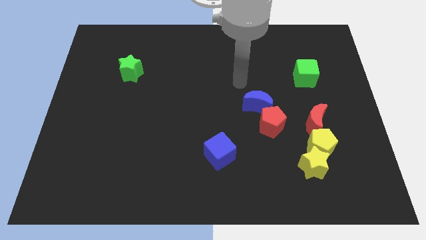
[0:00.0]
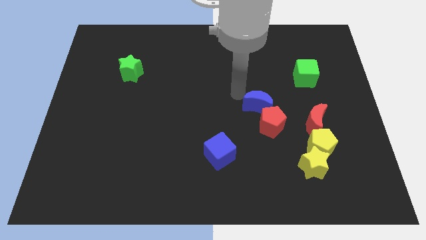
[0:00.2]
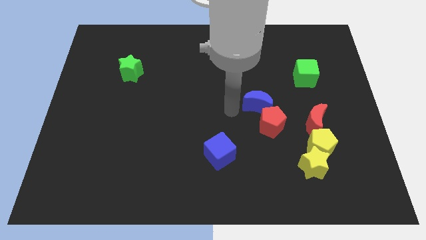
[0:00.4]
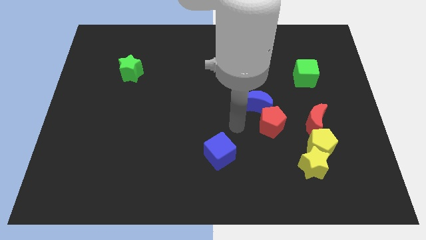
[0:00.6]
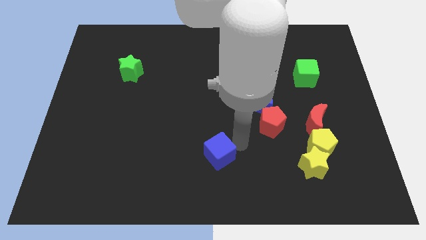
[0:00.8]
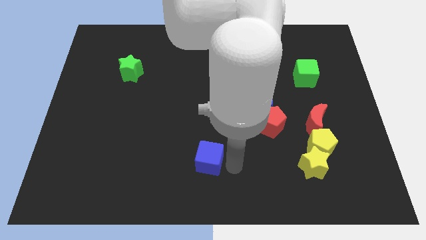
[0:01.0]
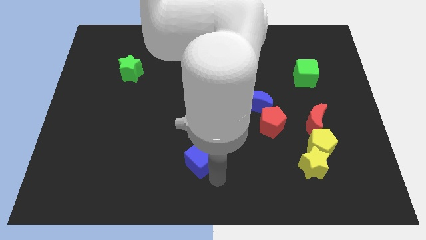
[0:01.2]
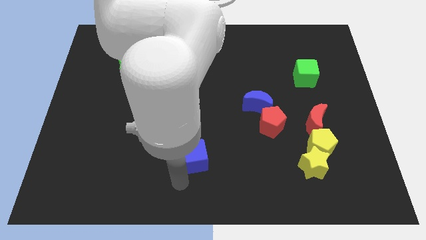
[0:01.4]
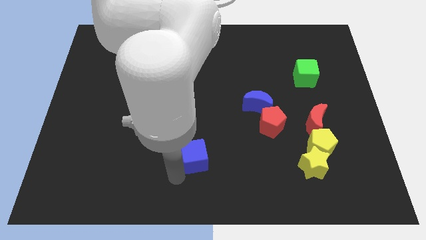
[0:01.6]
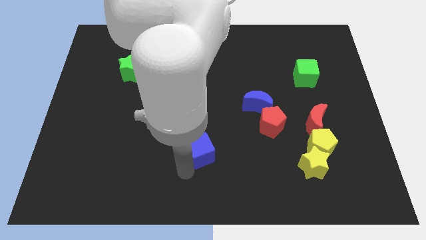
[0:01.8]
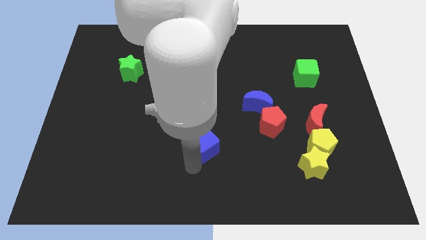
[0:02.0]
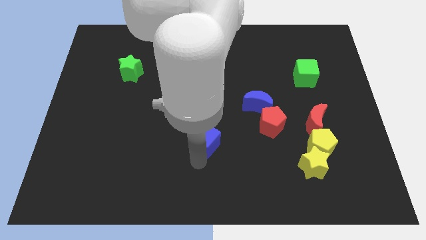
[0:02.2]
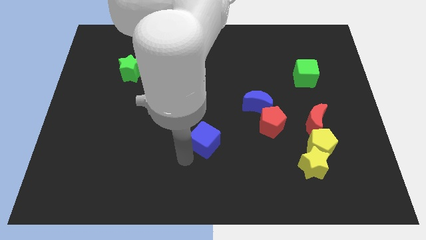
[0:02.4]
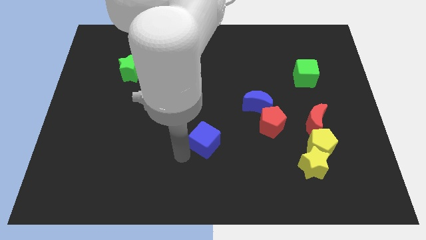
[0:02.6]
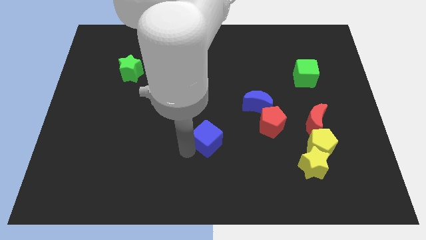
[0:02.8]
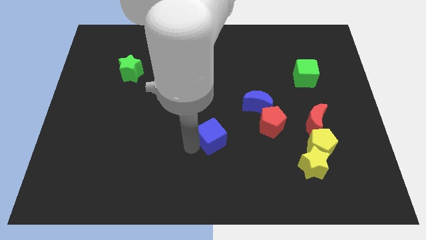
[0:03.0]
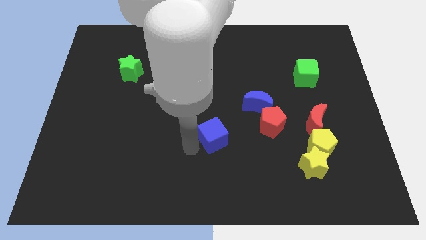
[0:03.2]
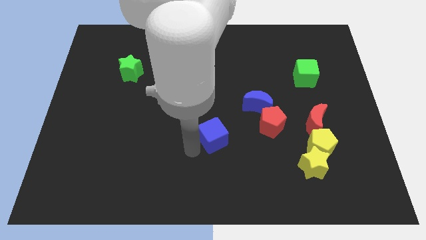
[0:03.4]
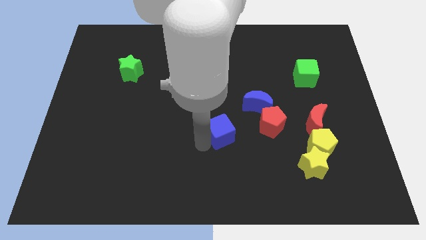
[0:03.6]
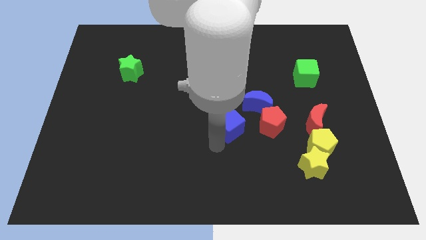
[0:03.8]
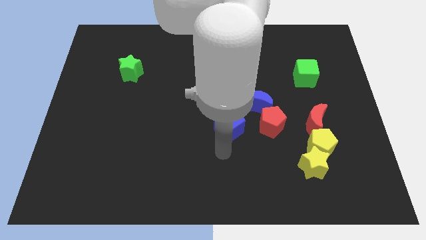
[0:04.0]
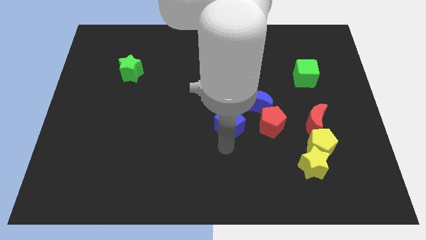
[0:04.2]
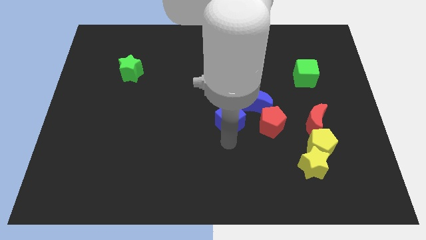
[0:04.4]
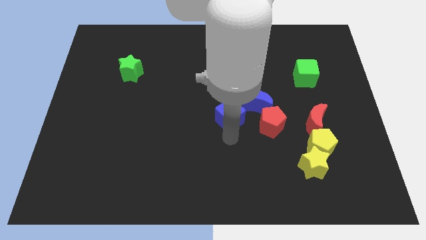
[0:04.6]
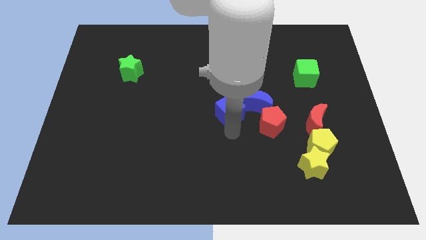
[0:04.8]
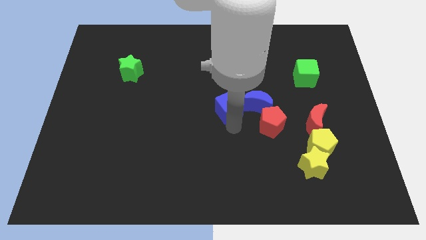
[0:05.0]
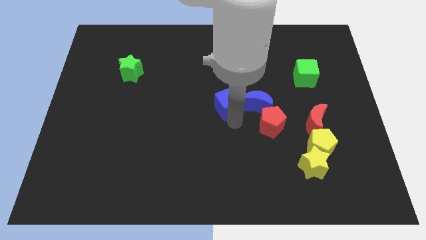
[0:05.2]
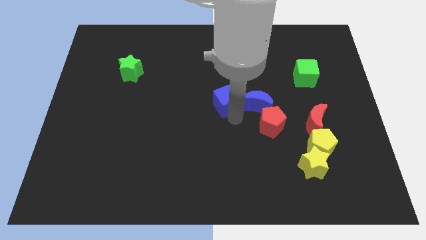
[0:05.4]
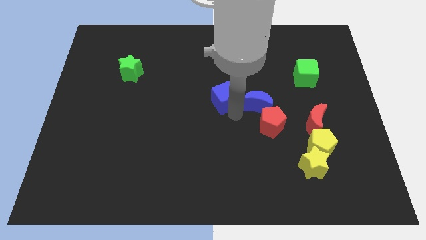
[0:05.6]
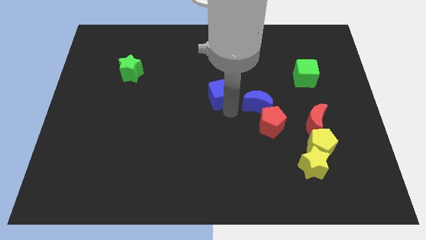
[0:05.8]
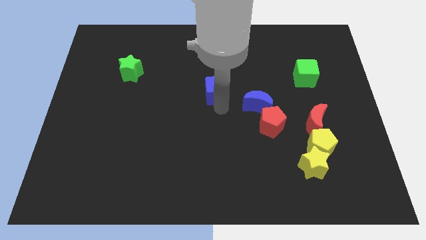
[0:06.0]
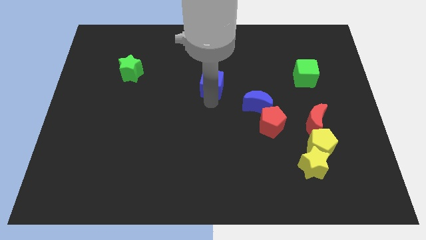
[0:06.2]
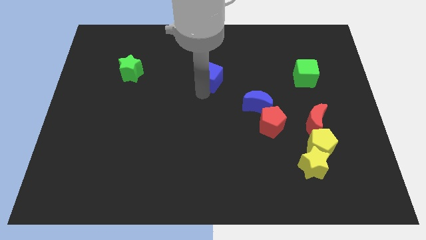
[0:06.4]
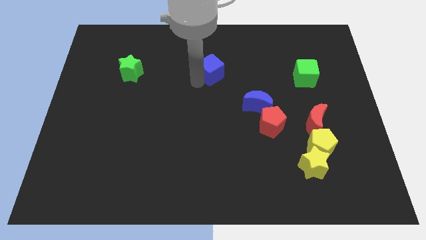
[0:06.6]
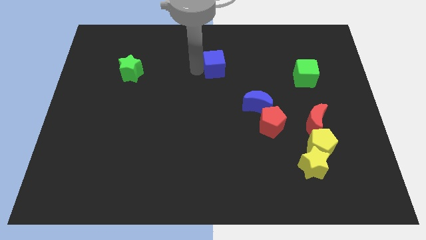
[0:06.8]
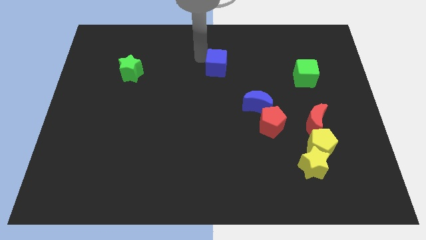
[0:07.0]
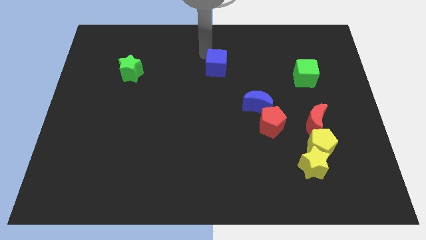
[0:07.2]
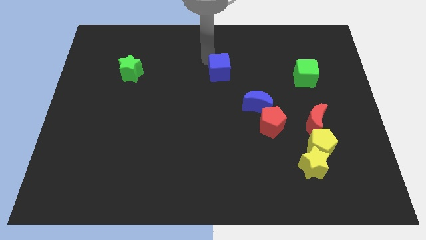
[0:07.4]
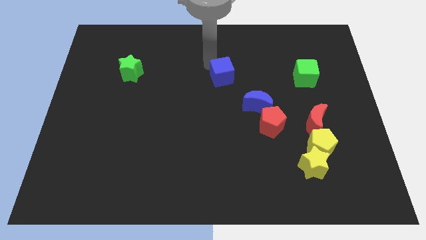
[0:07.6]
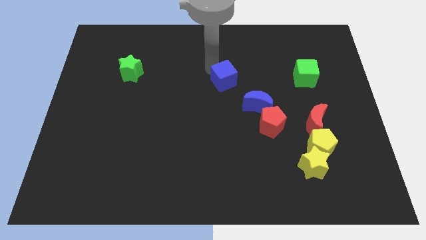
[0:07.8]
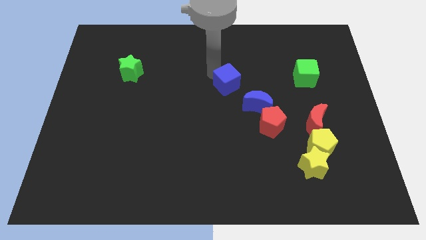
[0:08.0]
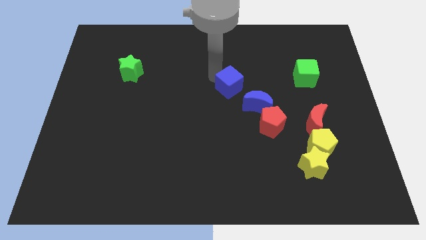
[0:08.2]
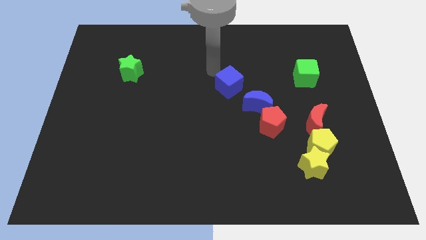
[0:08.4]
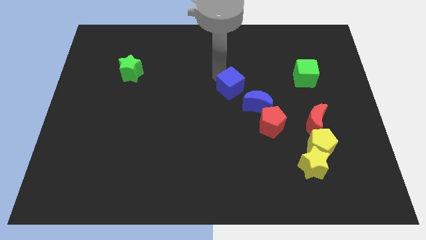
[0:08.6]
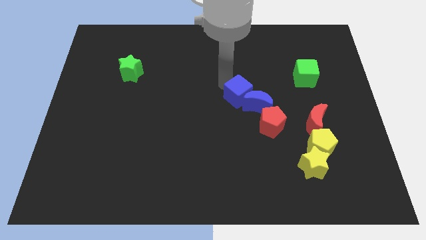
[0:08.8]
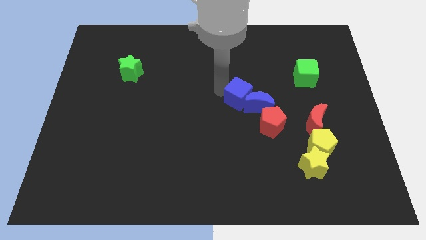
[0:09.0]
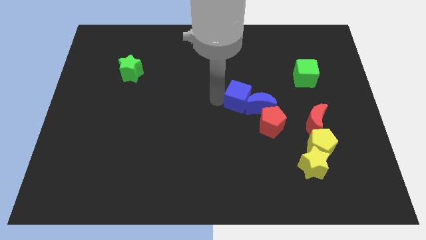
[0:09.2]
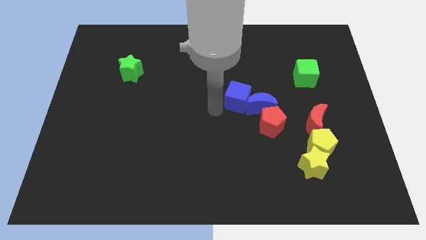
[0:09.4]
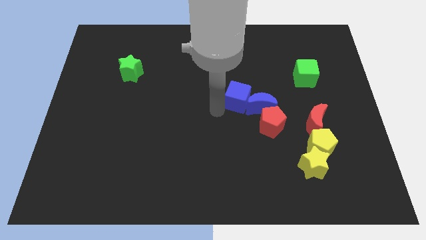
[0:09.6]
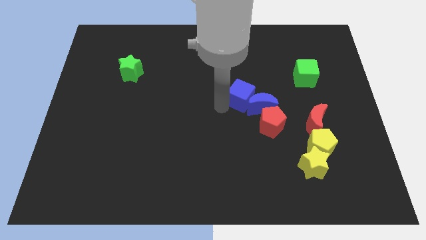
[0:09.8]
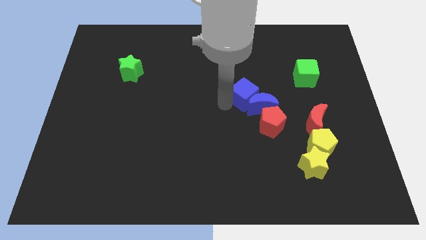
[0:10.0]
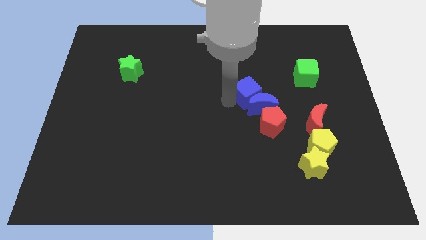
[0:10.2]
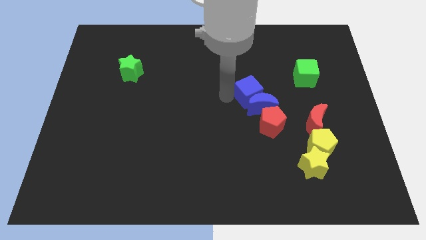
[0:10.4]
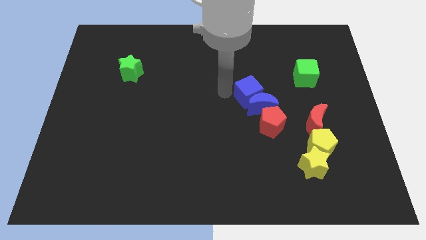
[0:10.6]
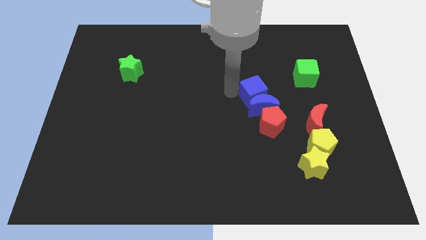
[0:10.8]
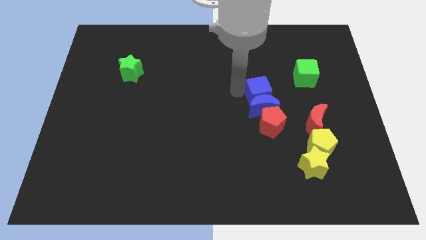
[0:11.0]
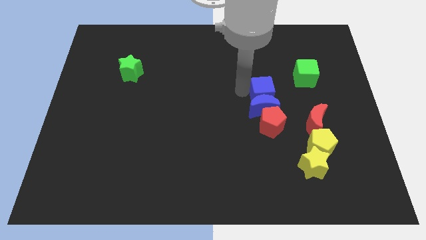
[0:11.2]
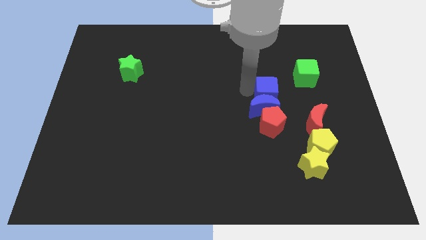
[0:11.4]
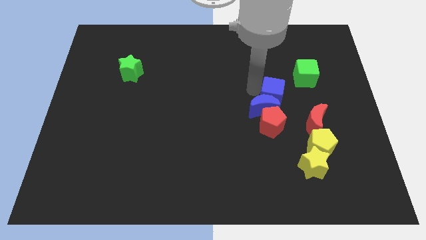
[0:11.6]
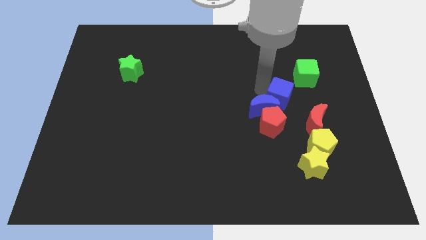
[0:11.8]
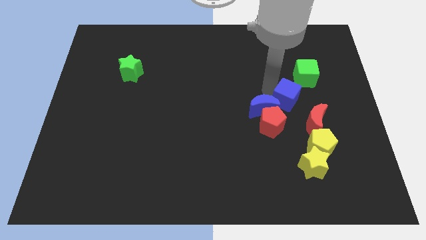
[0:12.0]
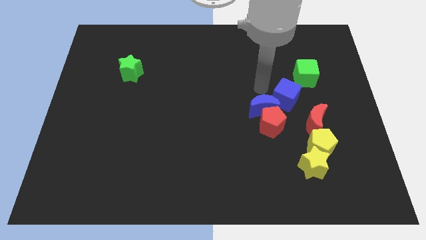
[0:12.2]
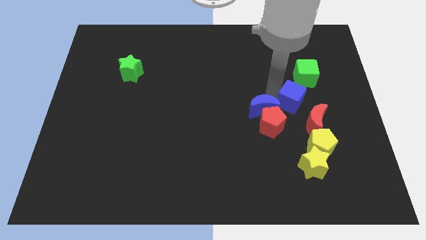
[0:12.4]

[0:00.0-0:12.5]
slide the blue cube to the top of the yellow pentagon

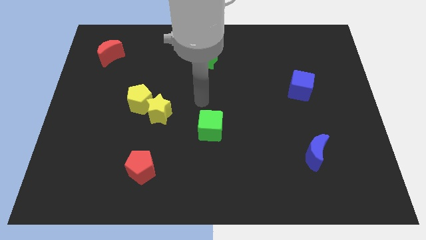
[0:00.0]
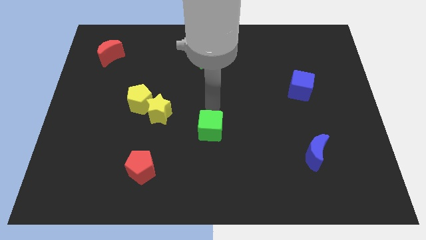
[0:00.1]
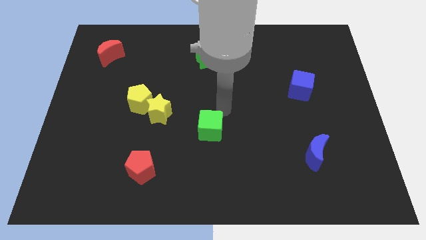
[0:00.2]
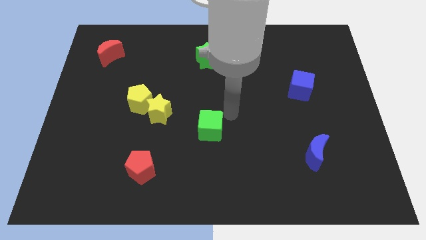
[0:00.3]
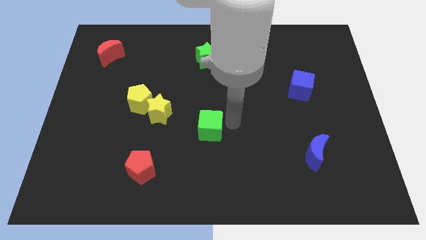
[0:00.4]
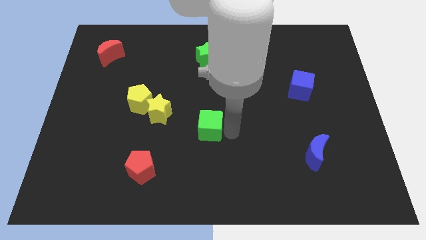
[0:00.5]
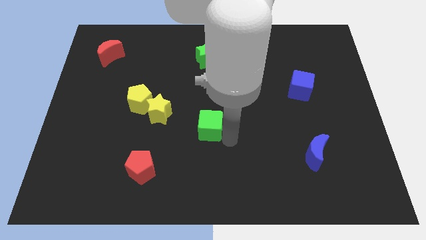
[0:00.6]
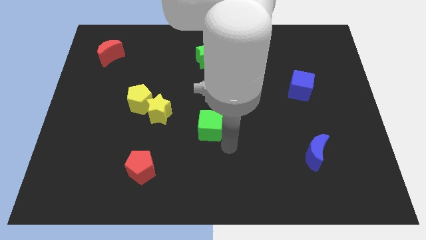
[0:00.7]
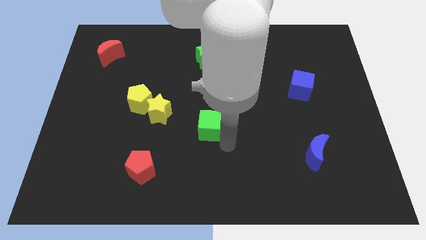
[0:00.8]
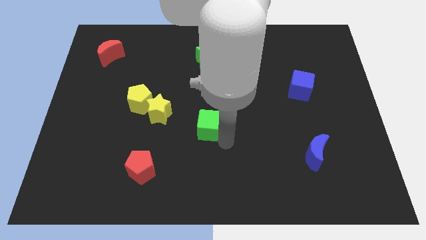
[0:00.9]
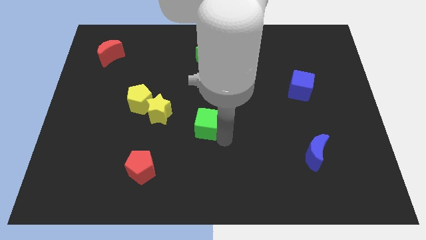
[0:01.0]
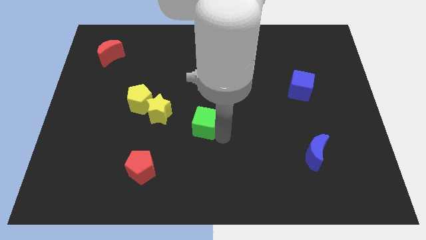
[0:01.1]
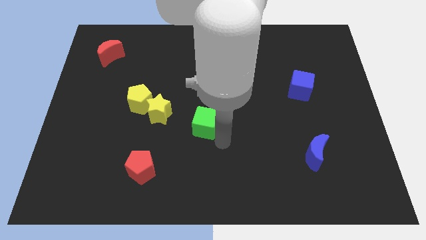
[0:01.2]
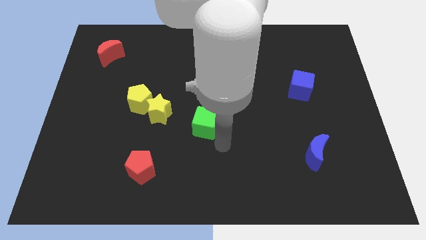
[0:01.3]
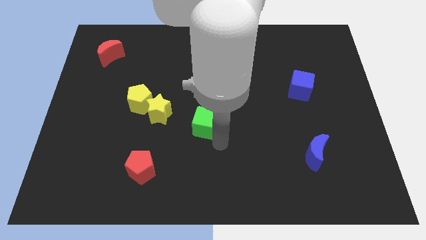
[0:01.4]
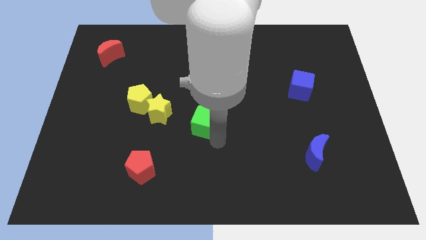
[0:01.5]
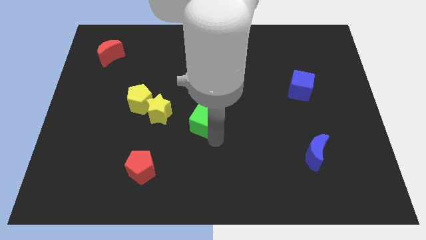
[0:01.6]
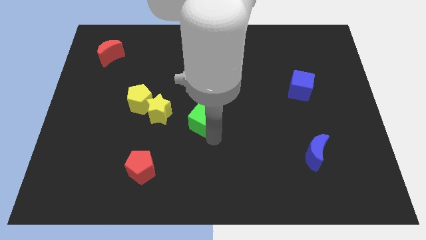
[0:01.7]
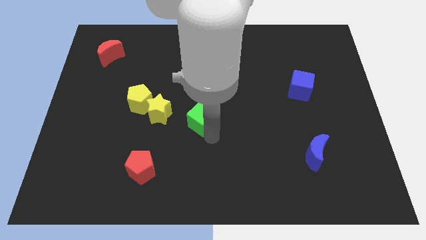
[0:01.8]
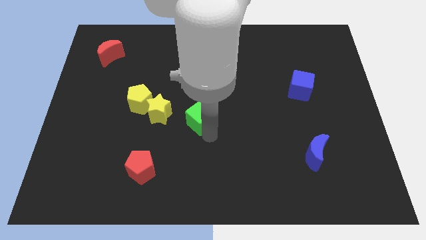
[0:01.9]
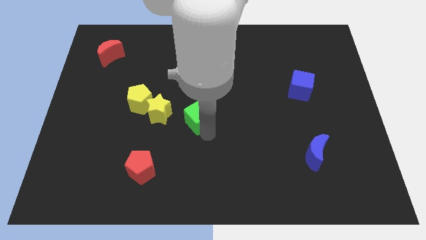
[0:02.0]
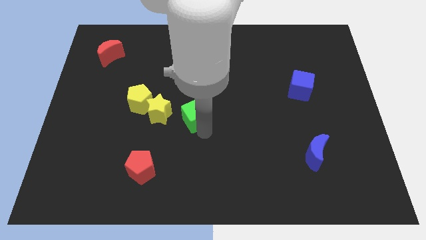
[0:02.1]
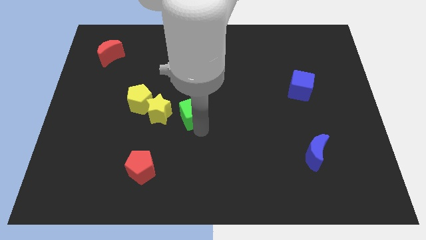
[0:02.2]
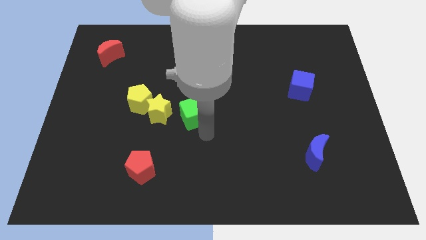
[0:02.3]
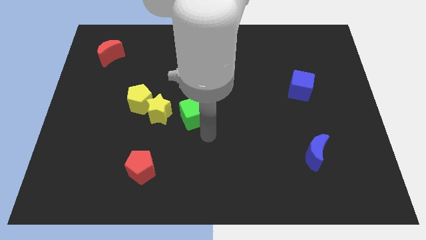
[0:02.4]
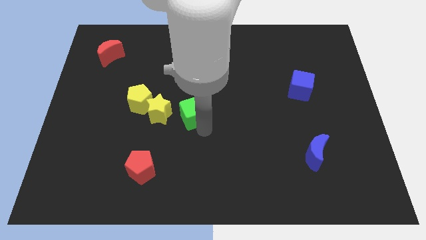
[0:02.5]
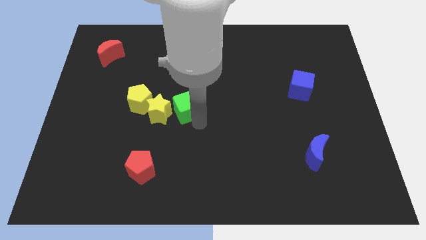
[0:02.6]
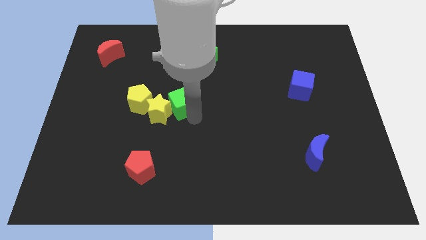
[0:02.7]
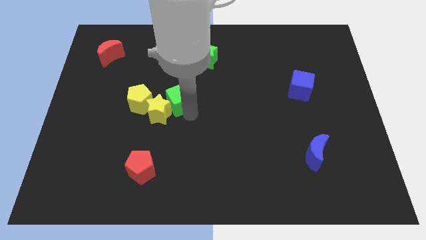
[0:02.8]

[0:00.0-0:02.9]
slide the green cube above the yellow star
